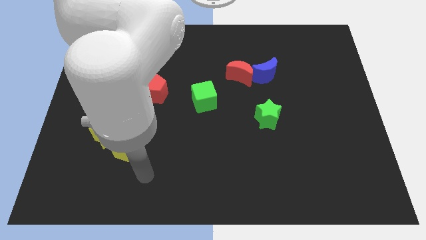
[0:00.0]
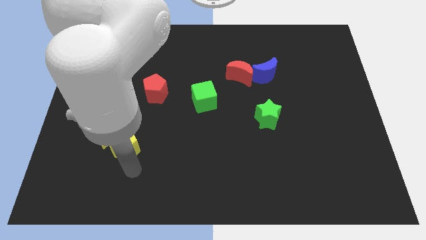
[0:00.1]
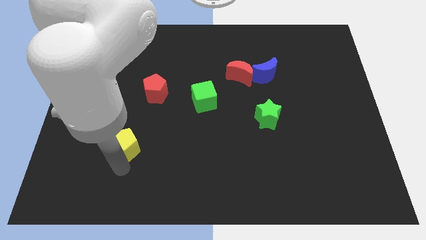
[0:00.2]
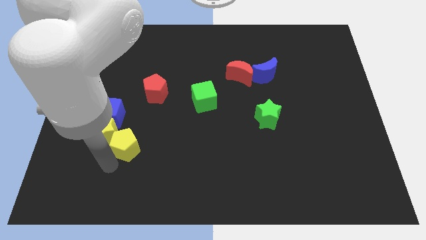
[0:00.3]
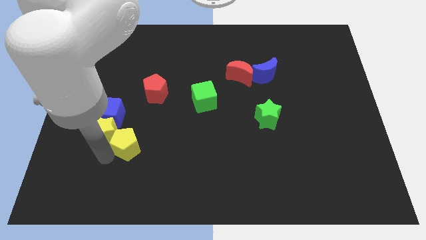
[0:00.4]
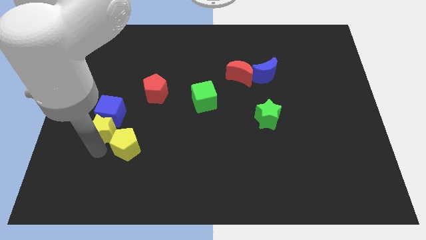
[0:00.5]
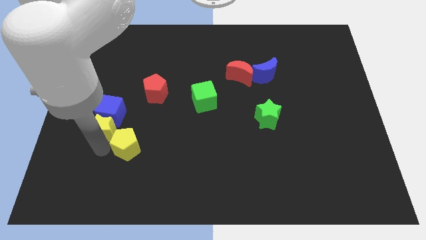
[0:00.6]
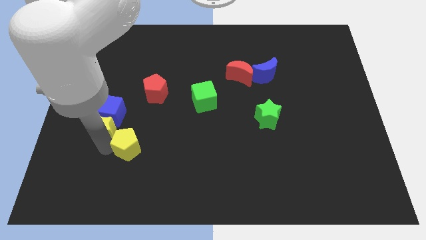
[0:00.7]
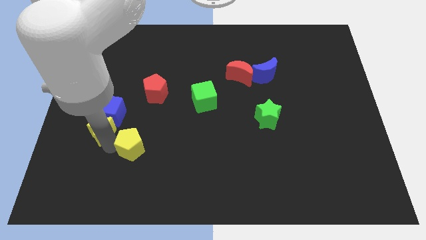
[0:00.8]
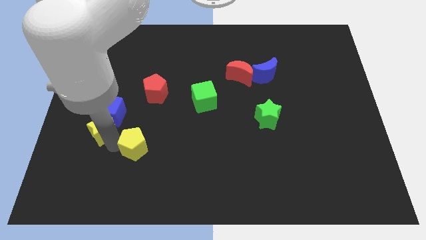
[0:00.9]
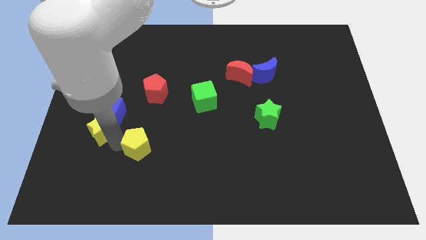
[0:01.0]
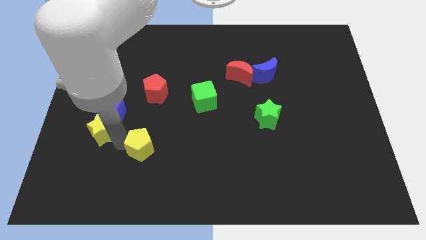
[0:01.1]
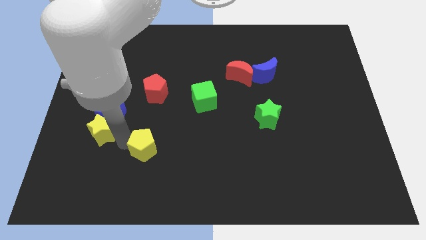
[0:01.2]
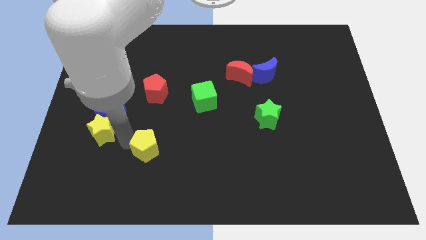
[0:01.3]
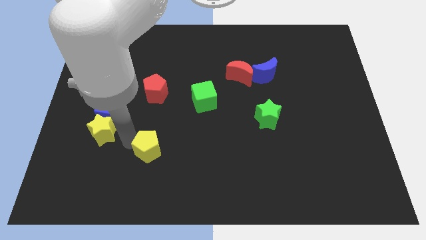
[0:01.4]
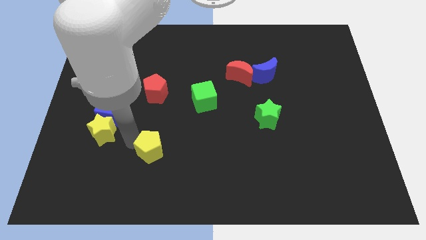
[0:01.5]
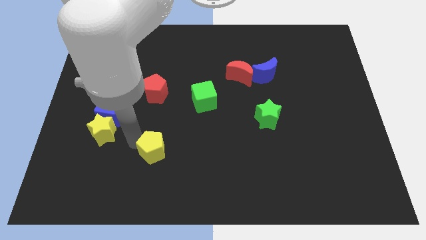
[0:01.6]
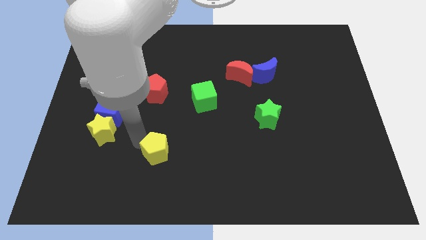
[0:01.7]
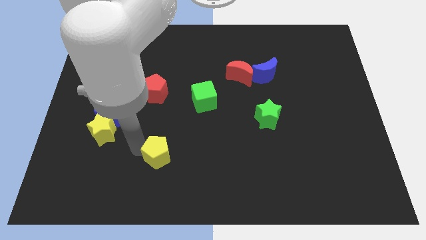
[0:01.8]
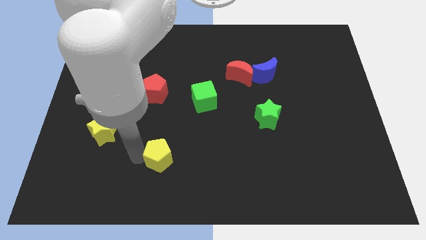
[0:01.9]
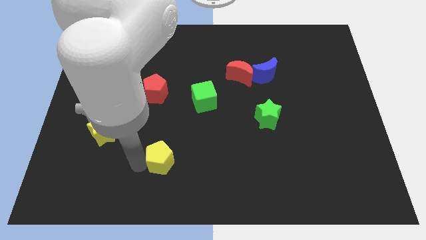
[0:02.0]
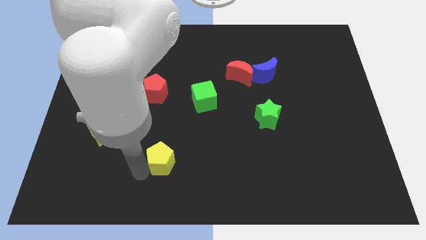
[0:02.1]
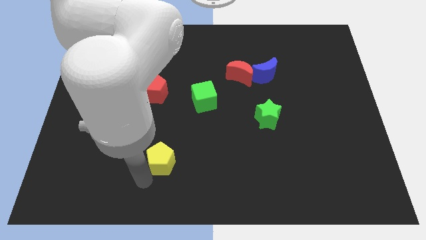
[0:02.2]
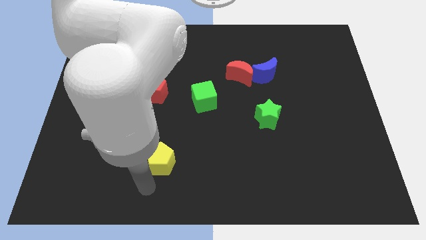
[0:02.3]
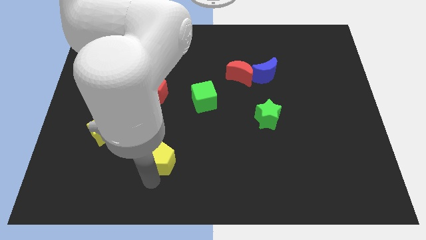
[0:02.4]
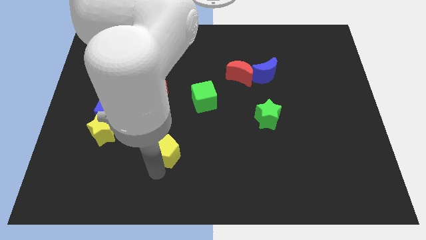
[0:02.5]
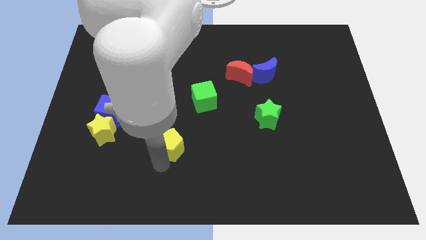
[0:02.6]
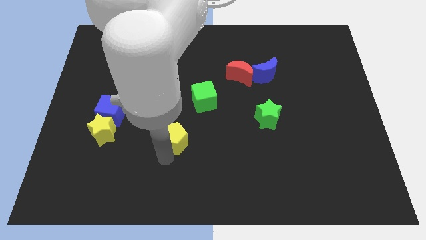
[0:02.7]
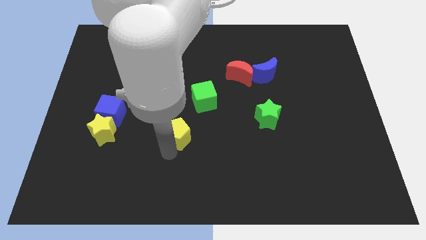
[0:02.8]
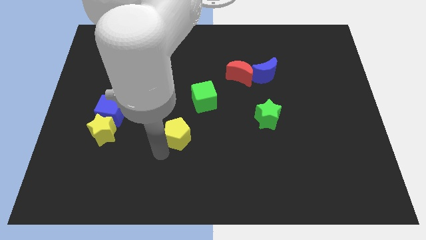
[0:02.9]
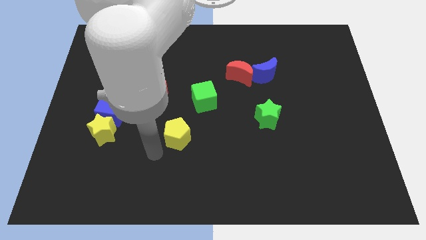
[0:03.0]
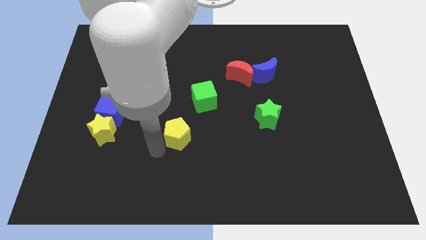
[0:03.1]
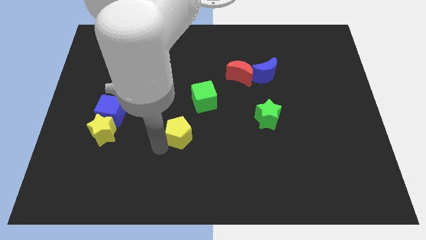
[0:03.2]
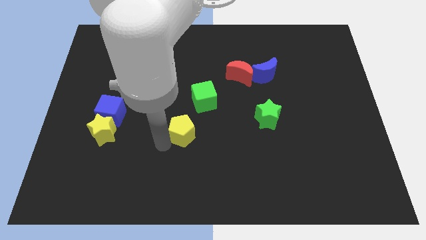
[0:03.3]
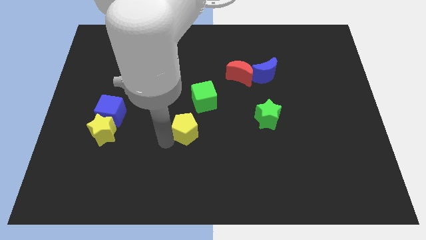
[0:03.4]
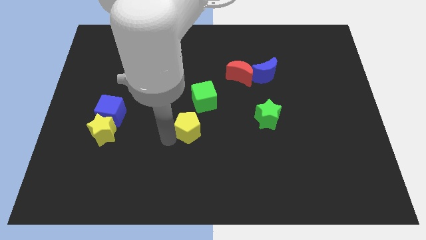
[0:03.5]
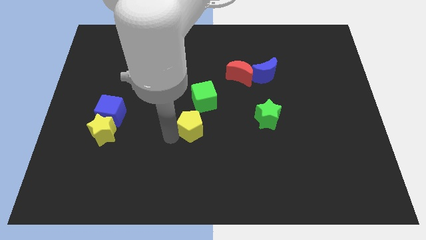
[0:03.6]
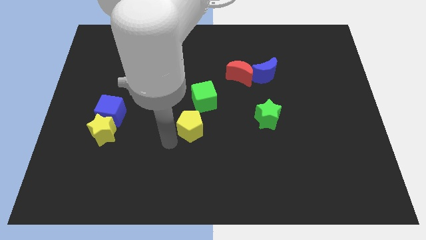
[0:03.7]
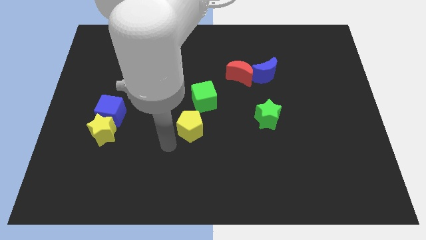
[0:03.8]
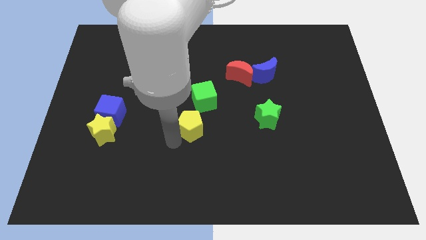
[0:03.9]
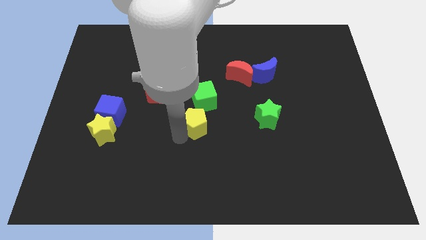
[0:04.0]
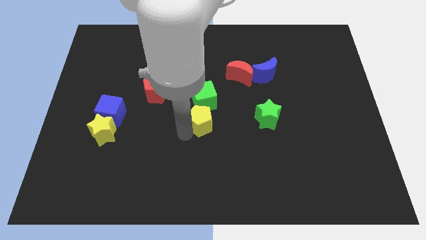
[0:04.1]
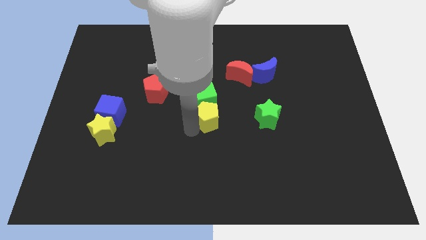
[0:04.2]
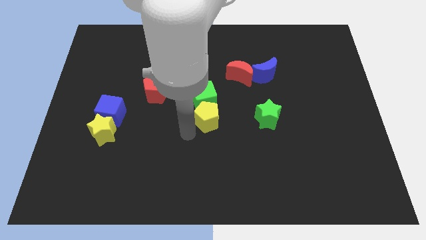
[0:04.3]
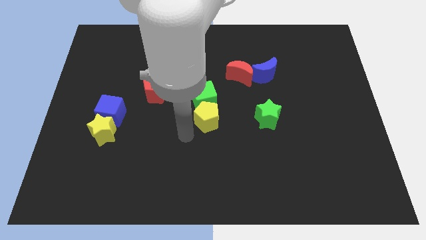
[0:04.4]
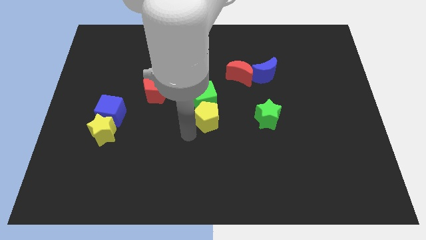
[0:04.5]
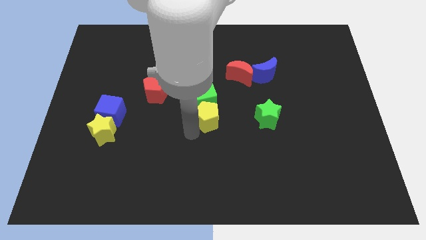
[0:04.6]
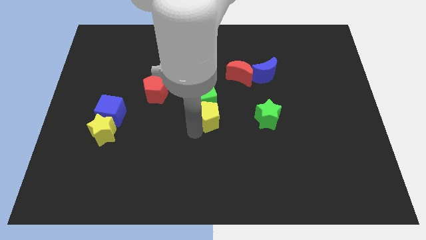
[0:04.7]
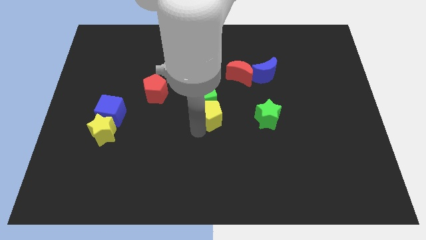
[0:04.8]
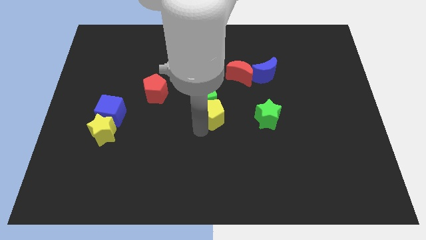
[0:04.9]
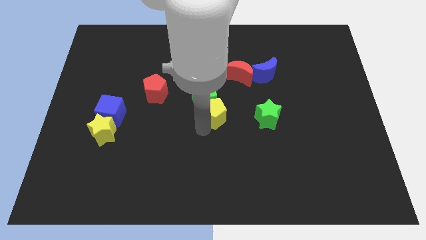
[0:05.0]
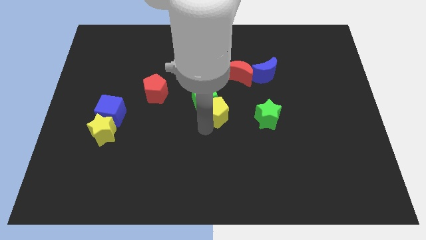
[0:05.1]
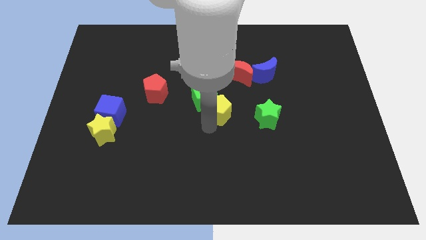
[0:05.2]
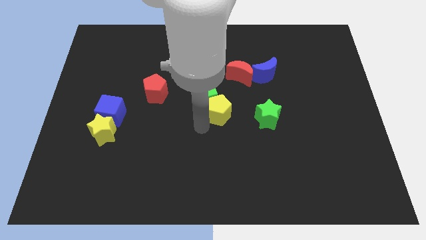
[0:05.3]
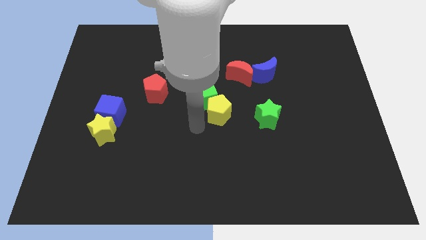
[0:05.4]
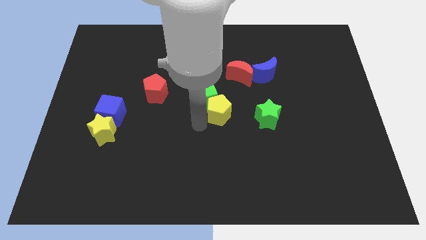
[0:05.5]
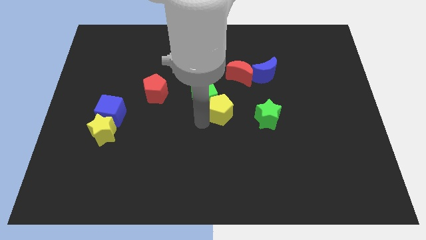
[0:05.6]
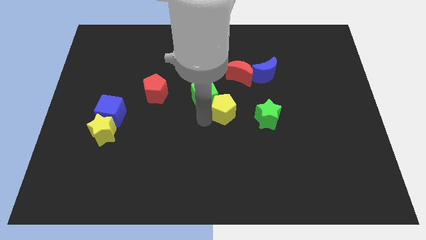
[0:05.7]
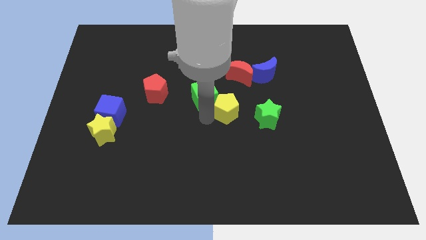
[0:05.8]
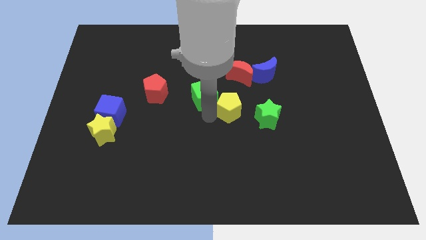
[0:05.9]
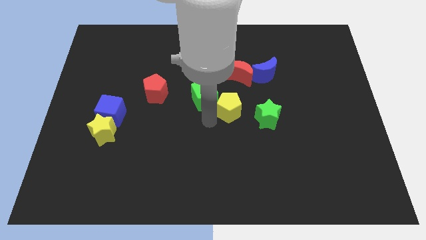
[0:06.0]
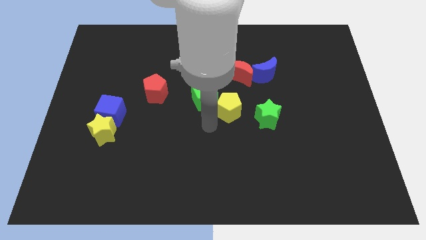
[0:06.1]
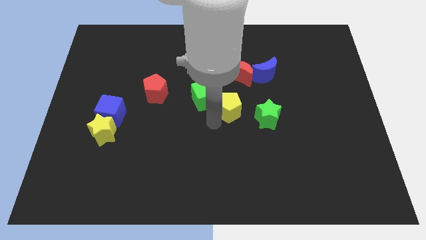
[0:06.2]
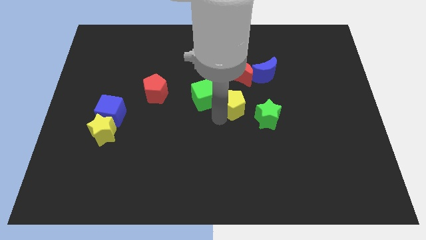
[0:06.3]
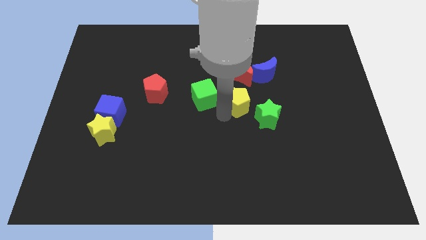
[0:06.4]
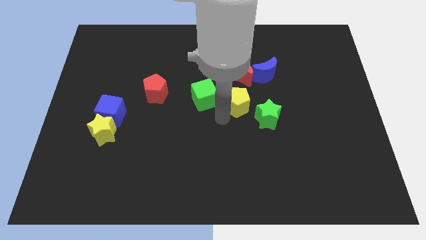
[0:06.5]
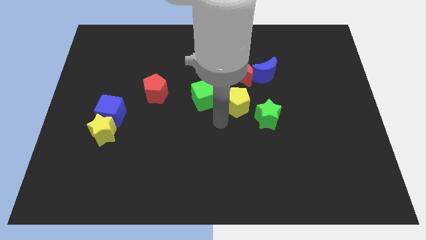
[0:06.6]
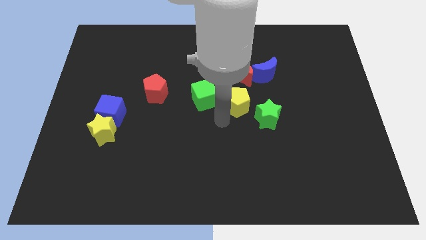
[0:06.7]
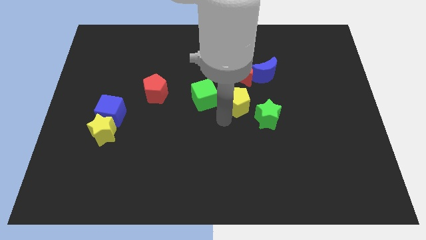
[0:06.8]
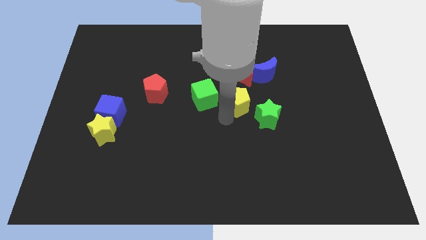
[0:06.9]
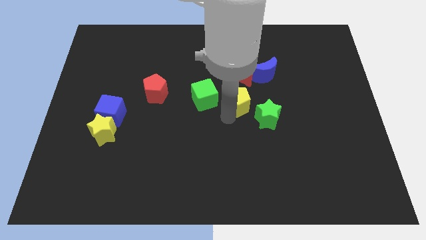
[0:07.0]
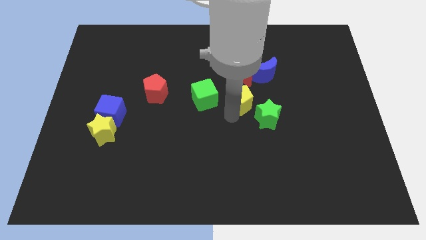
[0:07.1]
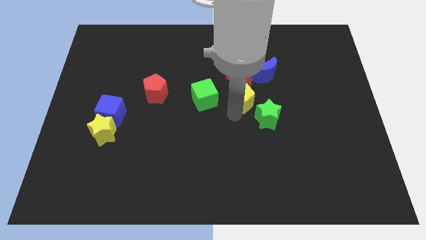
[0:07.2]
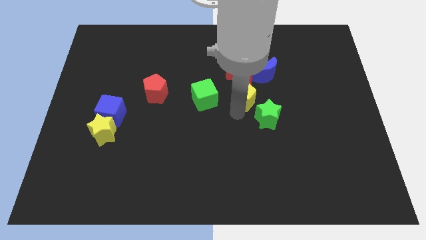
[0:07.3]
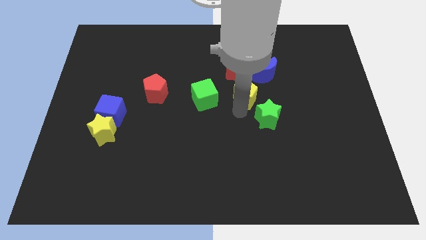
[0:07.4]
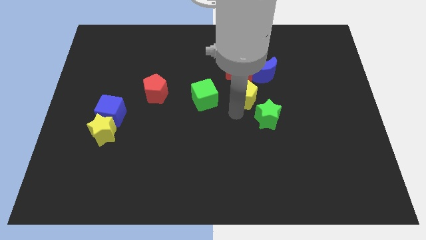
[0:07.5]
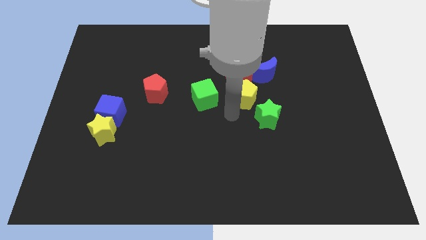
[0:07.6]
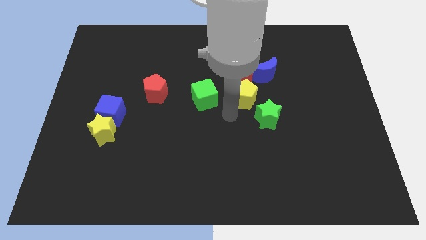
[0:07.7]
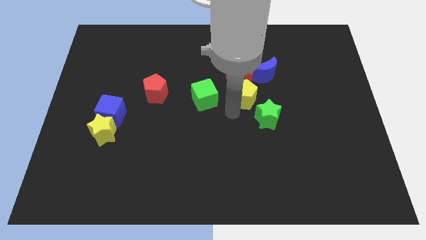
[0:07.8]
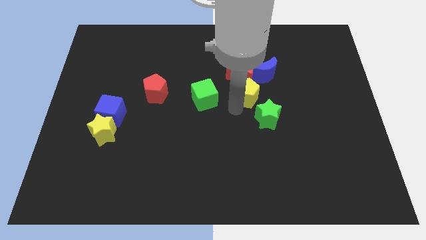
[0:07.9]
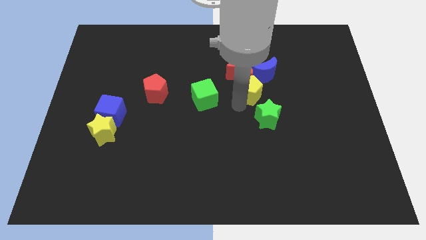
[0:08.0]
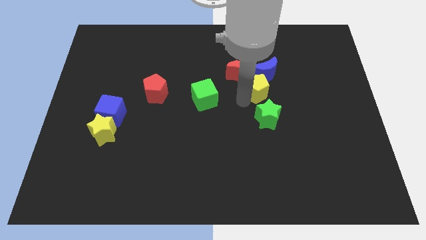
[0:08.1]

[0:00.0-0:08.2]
push the yellow pentagon close to the blue moon
